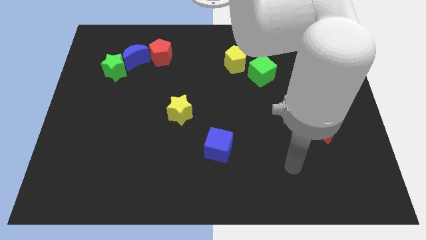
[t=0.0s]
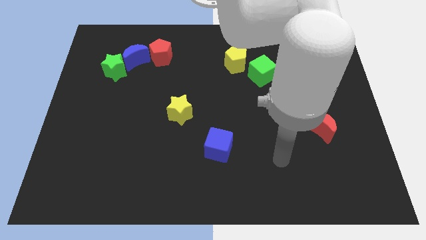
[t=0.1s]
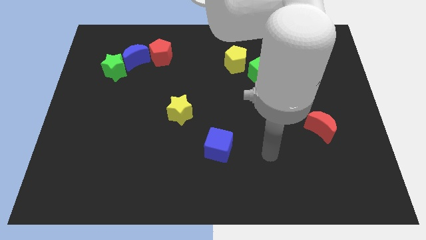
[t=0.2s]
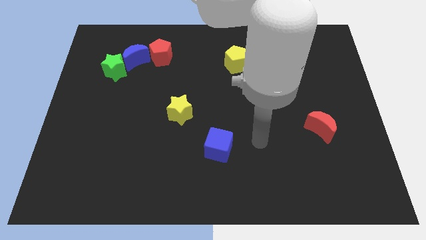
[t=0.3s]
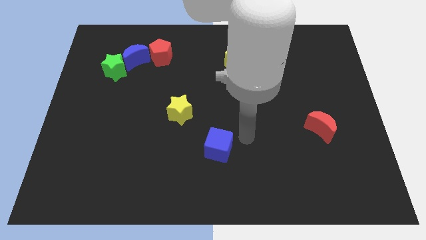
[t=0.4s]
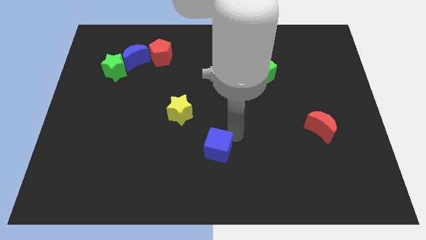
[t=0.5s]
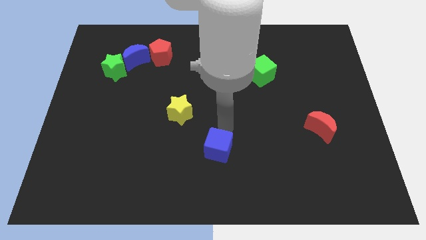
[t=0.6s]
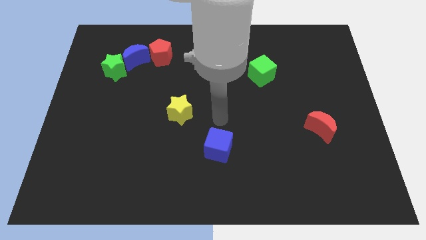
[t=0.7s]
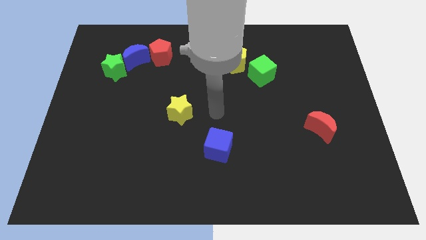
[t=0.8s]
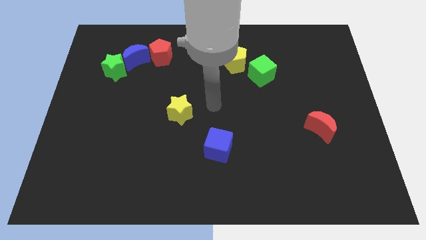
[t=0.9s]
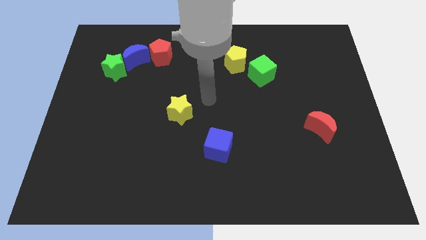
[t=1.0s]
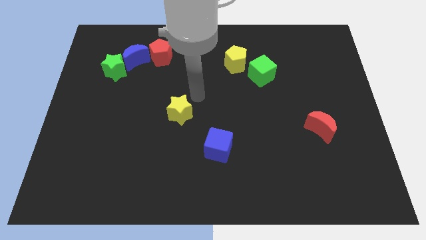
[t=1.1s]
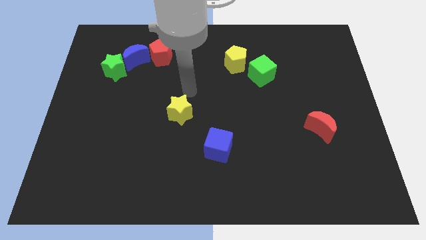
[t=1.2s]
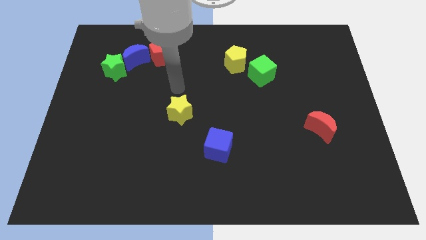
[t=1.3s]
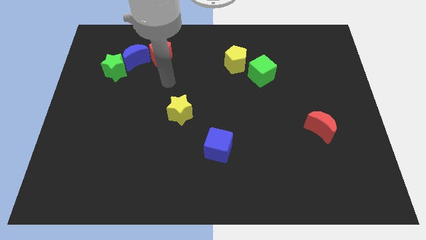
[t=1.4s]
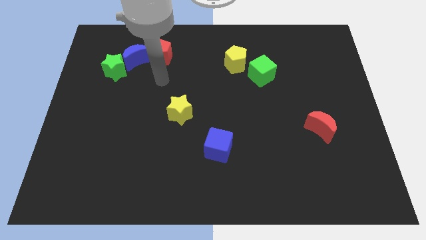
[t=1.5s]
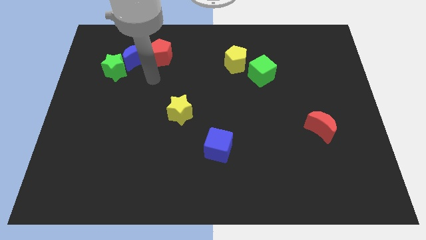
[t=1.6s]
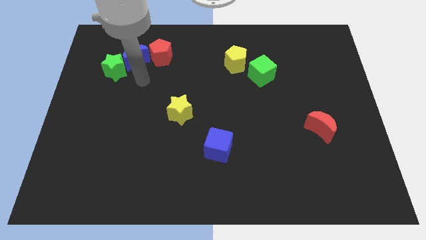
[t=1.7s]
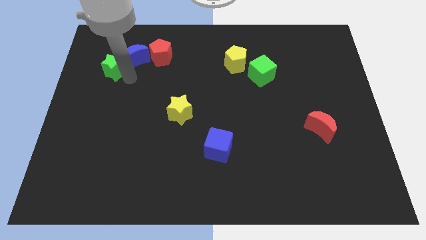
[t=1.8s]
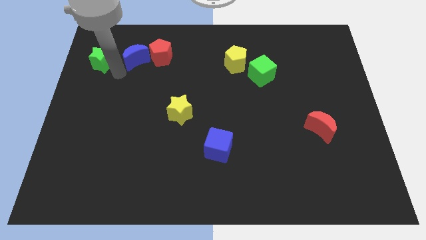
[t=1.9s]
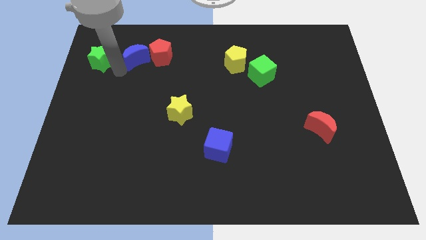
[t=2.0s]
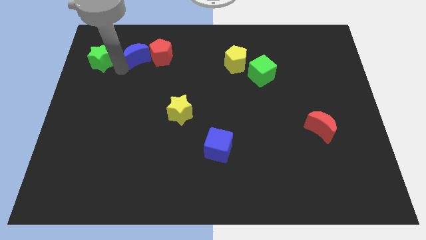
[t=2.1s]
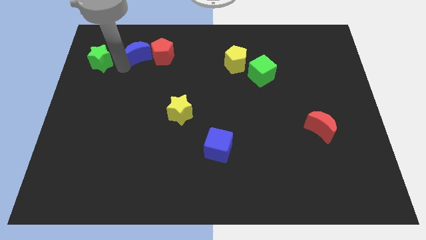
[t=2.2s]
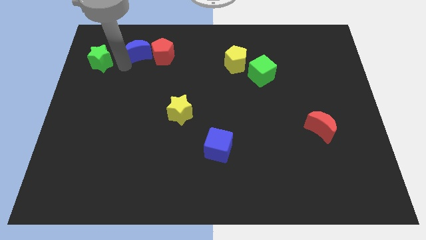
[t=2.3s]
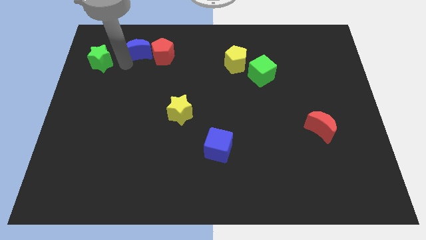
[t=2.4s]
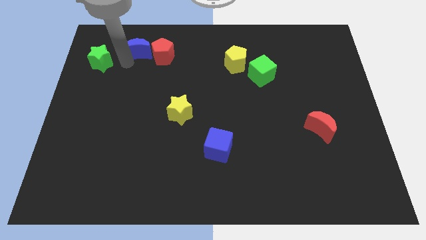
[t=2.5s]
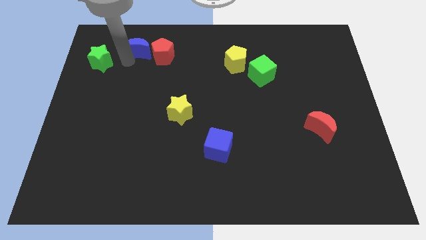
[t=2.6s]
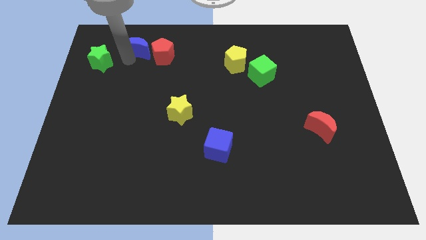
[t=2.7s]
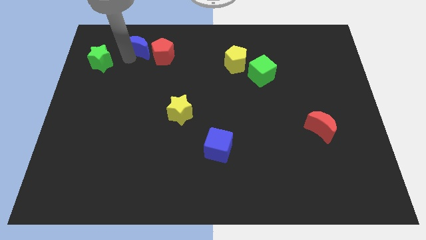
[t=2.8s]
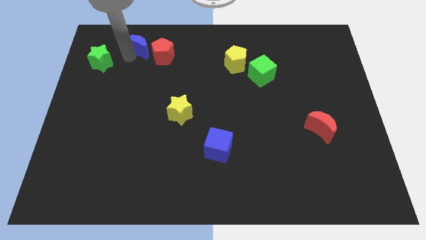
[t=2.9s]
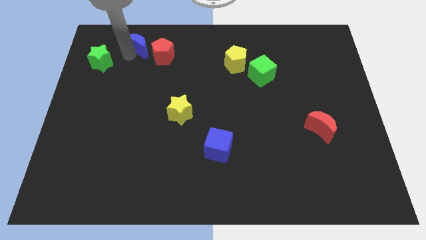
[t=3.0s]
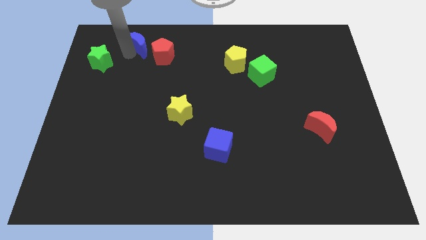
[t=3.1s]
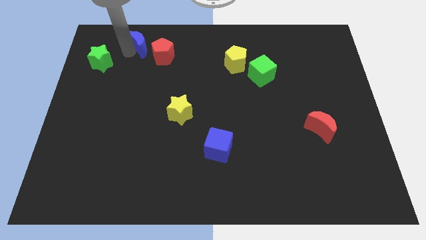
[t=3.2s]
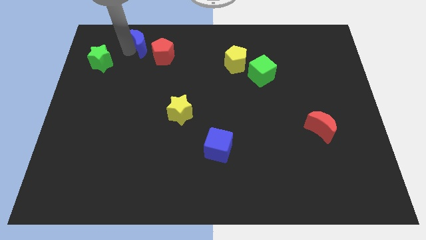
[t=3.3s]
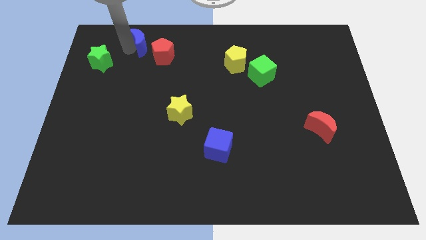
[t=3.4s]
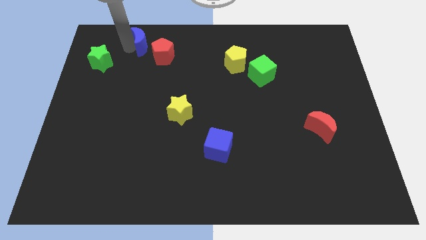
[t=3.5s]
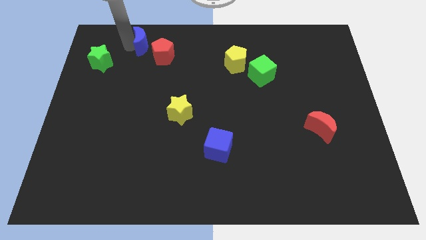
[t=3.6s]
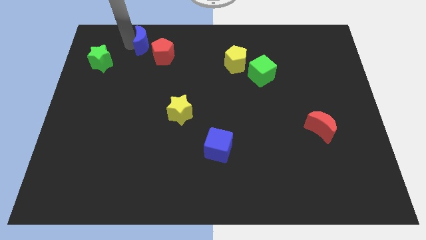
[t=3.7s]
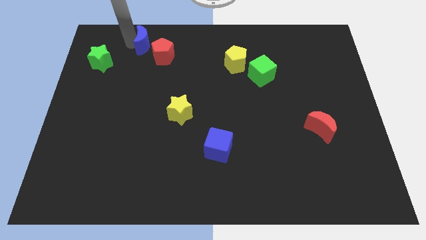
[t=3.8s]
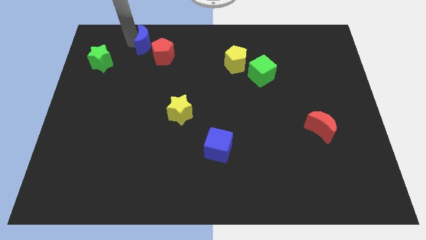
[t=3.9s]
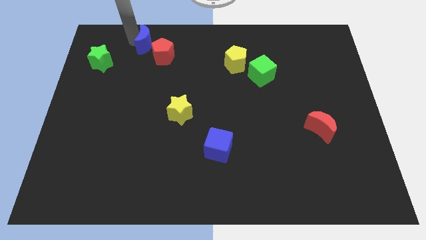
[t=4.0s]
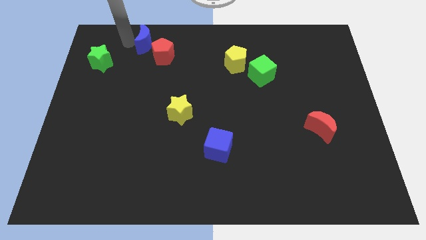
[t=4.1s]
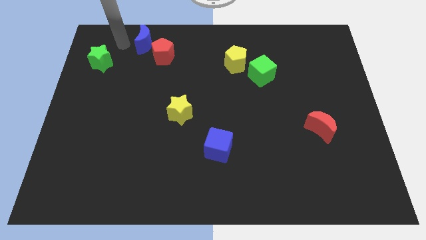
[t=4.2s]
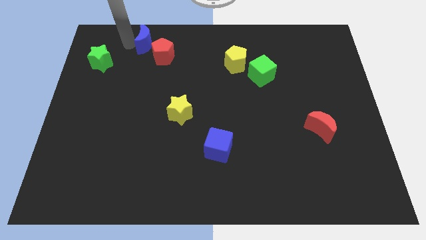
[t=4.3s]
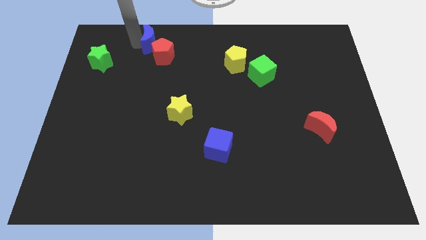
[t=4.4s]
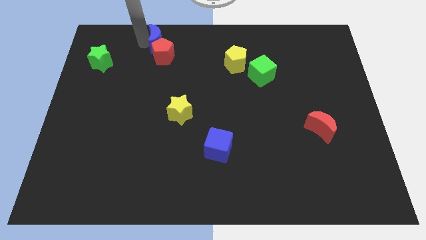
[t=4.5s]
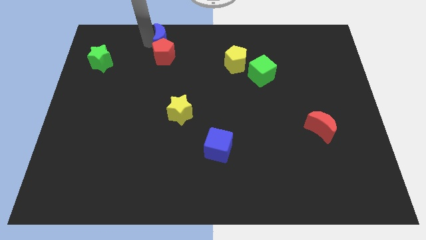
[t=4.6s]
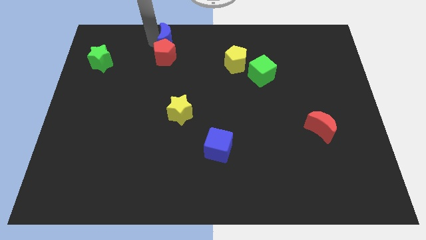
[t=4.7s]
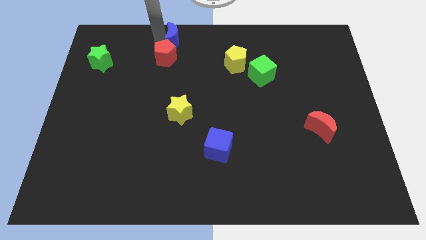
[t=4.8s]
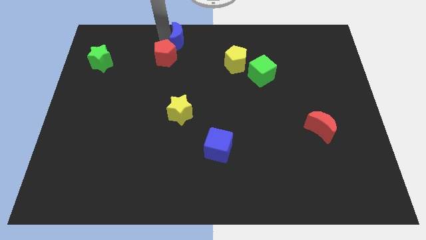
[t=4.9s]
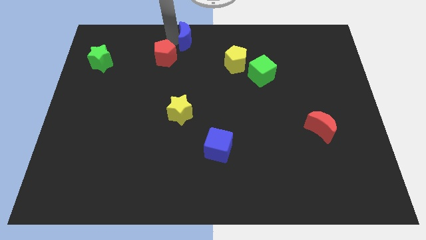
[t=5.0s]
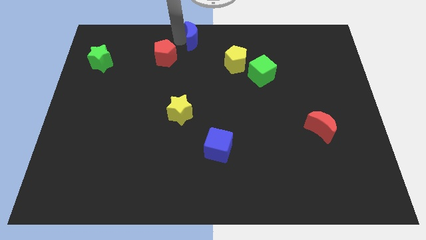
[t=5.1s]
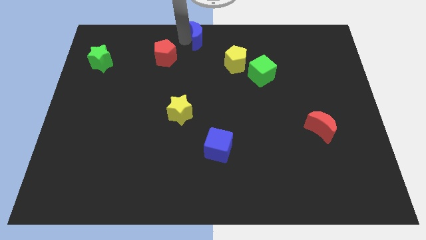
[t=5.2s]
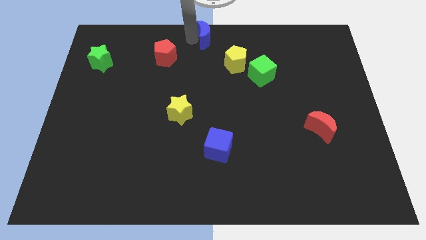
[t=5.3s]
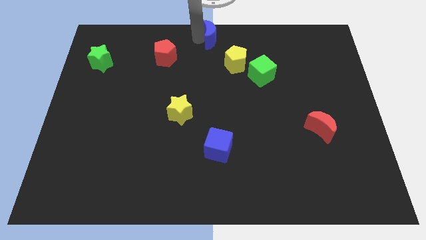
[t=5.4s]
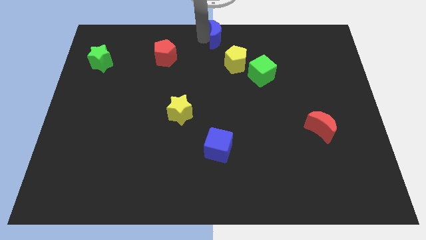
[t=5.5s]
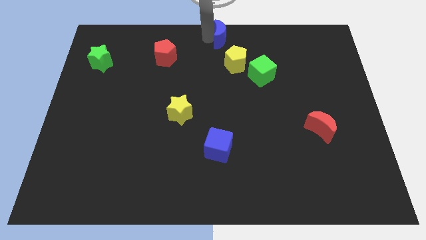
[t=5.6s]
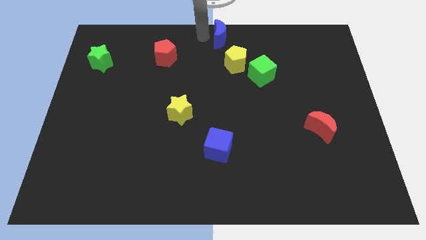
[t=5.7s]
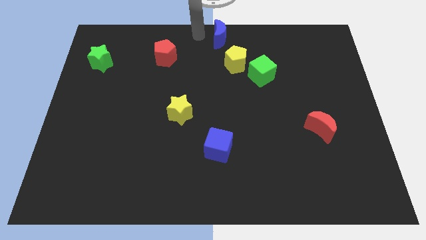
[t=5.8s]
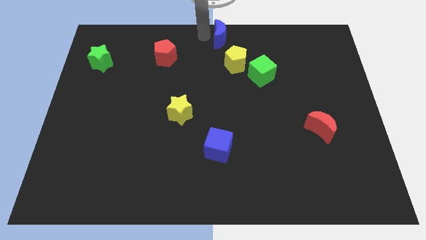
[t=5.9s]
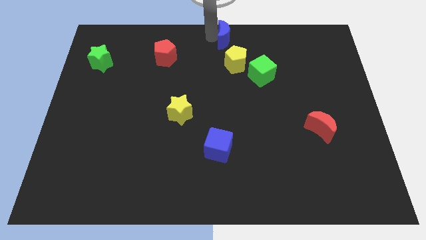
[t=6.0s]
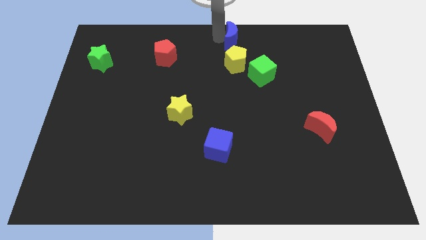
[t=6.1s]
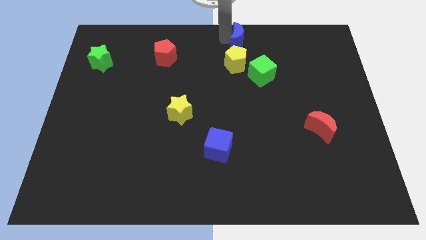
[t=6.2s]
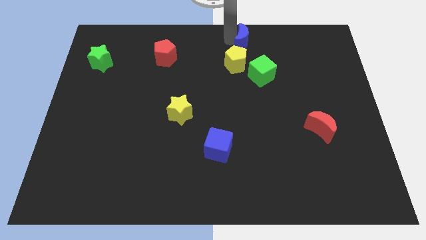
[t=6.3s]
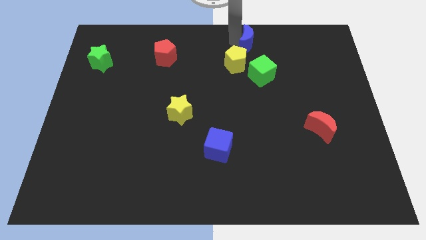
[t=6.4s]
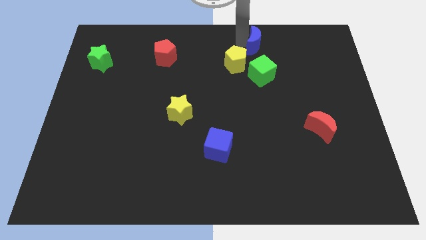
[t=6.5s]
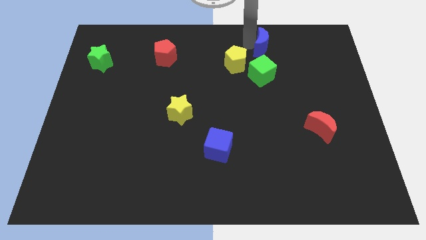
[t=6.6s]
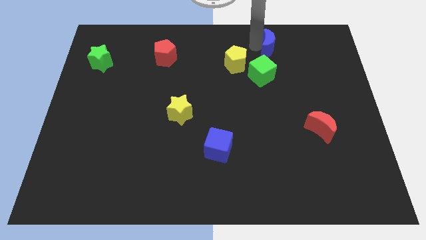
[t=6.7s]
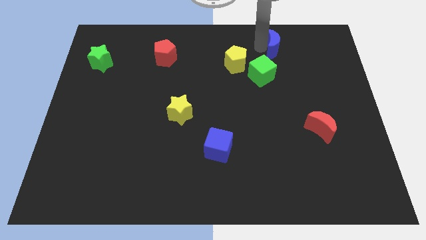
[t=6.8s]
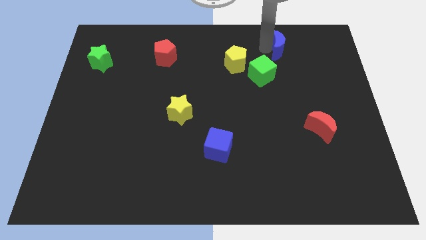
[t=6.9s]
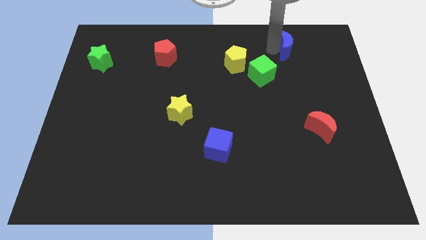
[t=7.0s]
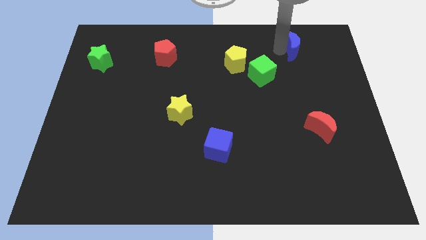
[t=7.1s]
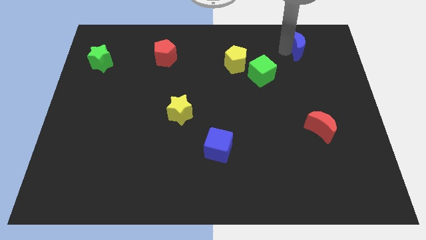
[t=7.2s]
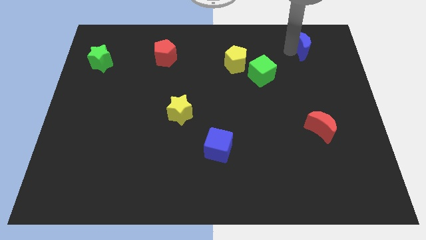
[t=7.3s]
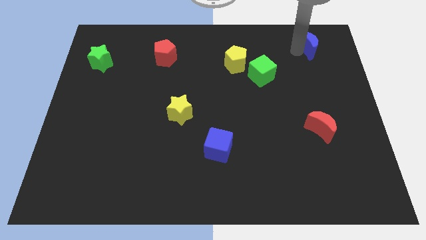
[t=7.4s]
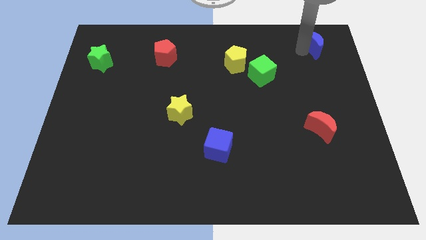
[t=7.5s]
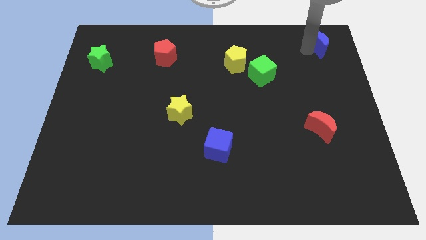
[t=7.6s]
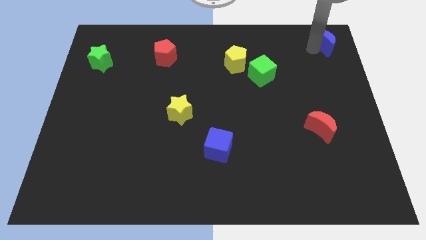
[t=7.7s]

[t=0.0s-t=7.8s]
slide the blue moon to the top right of the board
